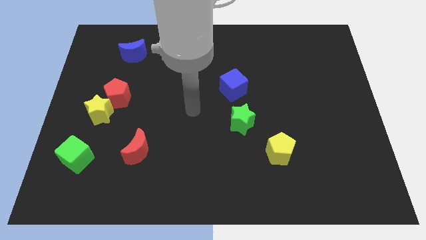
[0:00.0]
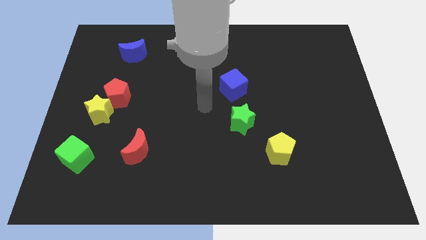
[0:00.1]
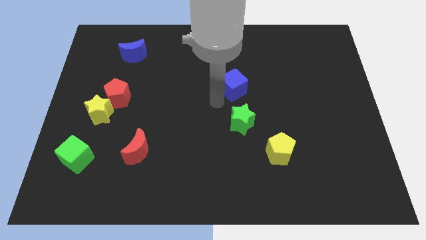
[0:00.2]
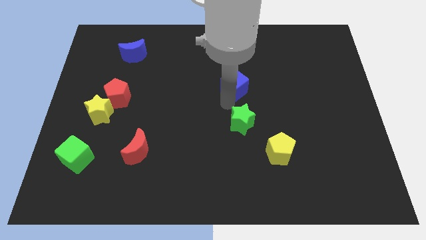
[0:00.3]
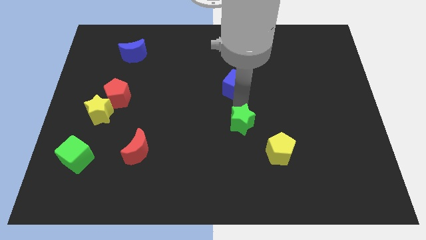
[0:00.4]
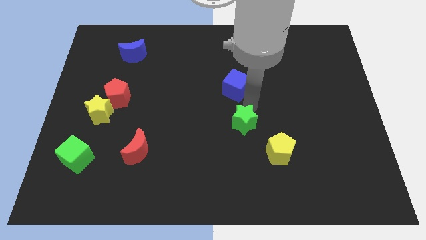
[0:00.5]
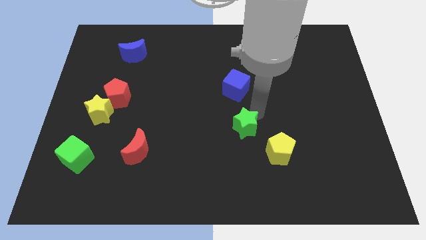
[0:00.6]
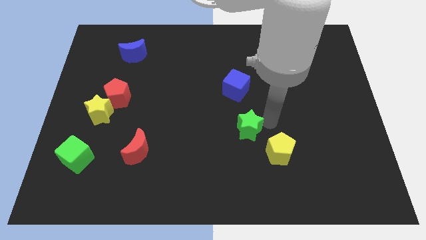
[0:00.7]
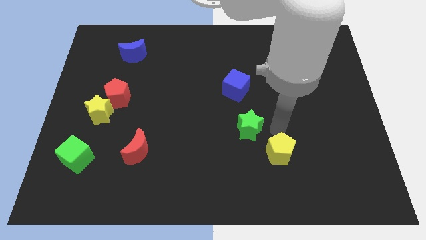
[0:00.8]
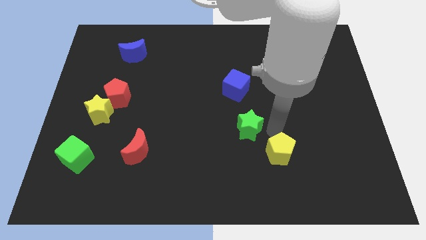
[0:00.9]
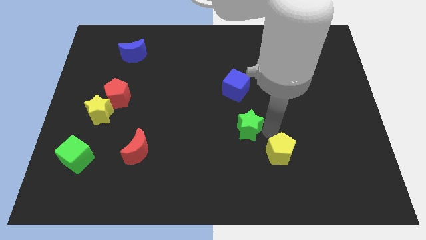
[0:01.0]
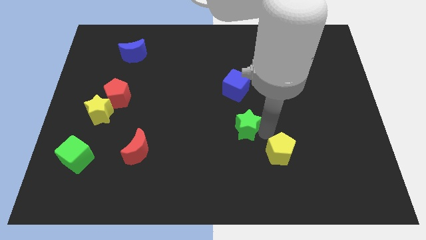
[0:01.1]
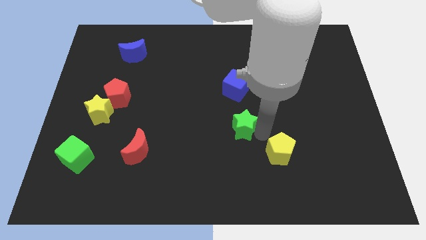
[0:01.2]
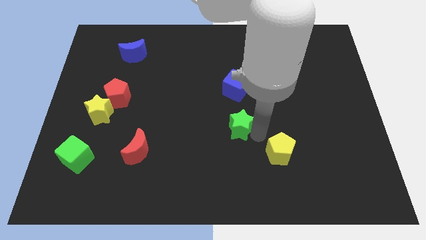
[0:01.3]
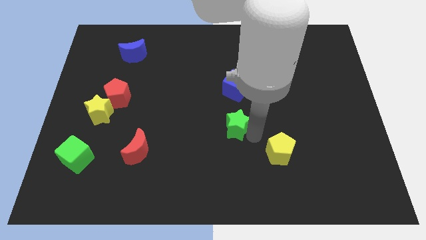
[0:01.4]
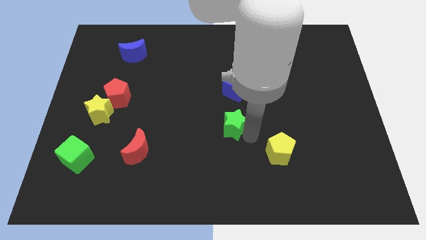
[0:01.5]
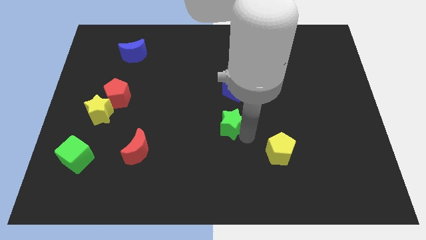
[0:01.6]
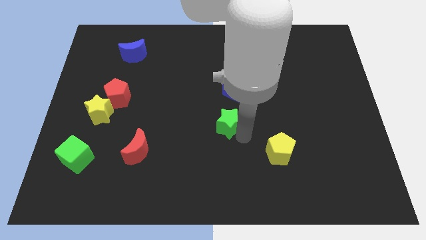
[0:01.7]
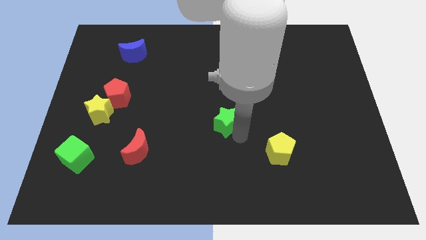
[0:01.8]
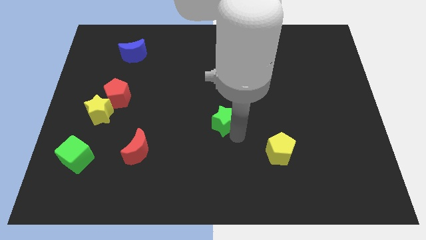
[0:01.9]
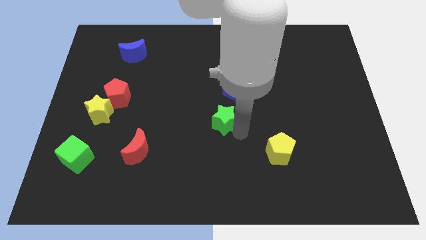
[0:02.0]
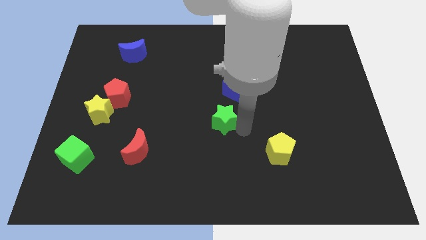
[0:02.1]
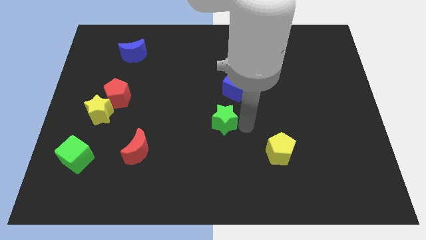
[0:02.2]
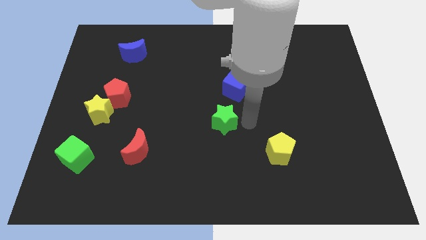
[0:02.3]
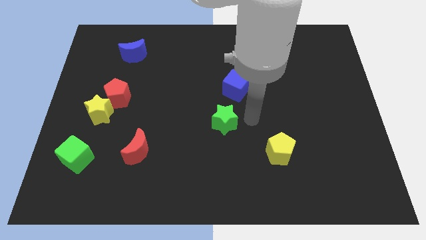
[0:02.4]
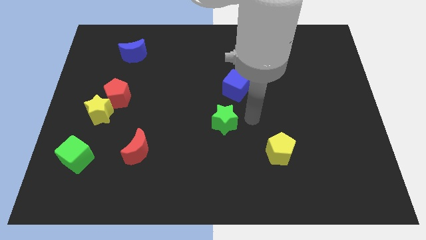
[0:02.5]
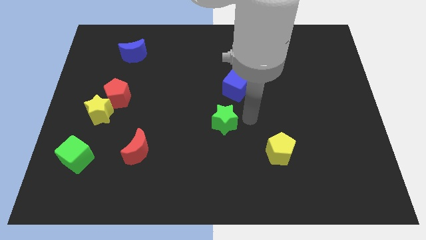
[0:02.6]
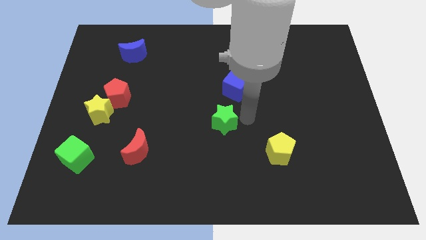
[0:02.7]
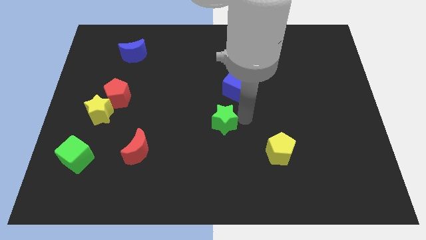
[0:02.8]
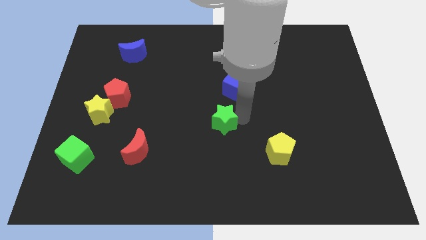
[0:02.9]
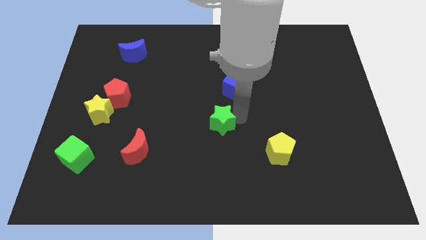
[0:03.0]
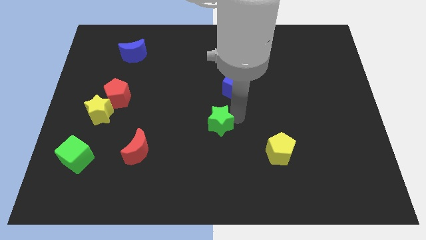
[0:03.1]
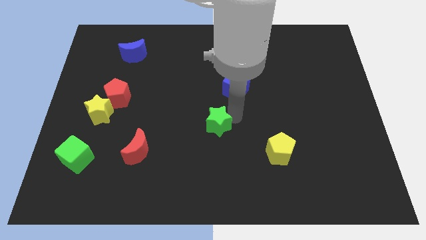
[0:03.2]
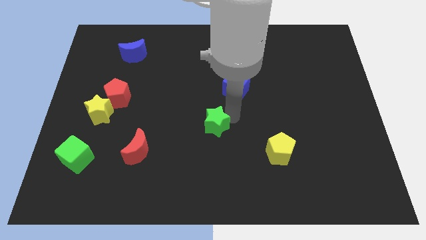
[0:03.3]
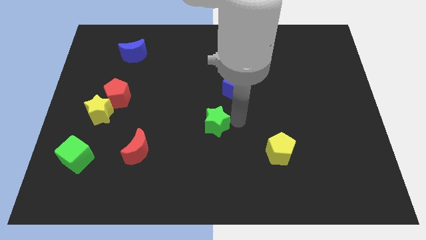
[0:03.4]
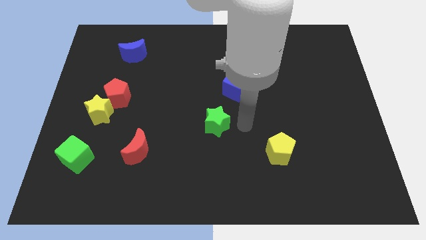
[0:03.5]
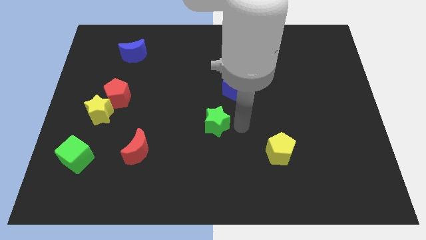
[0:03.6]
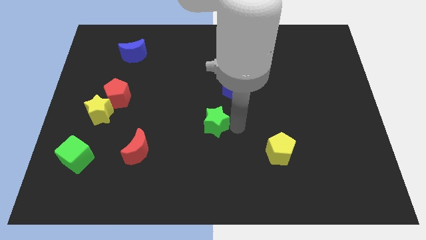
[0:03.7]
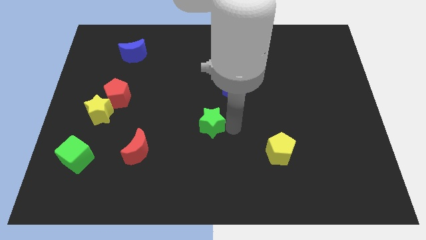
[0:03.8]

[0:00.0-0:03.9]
move the green star left a little

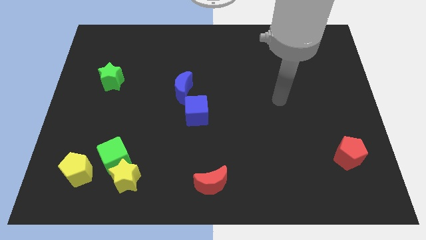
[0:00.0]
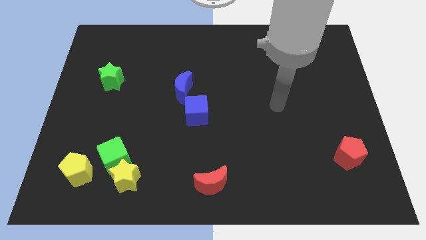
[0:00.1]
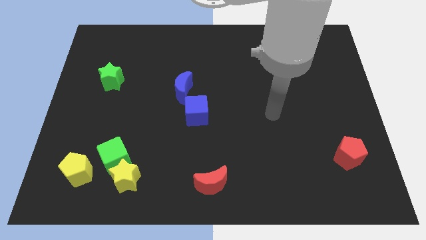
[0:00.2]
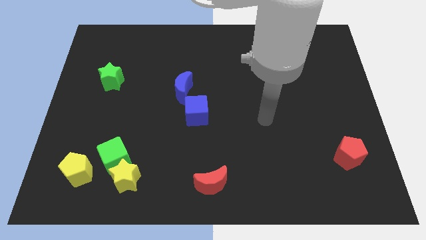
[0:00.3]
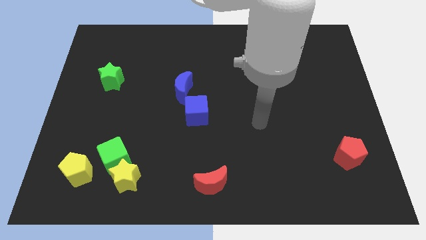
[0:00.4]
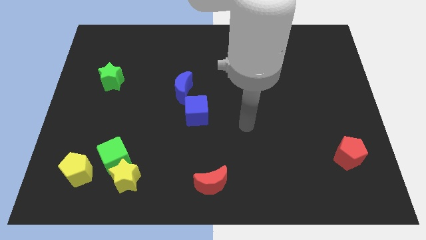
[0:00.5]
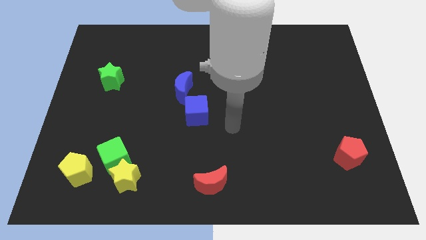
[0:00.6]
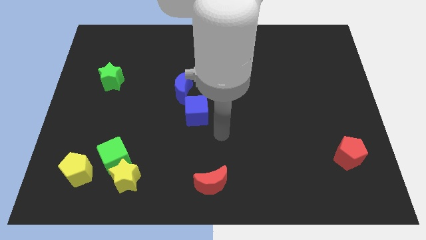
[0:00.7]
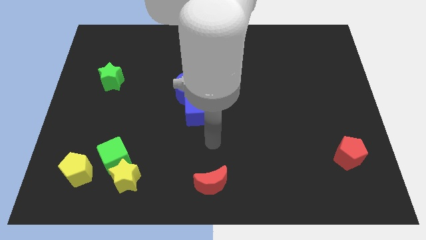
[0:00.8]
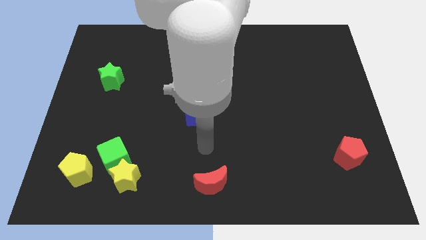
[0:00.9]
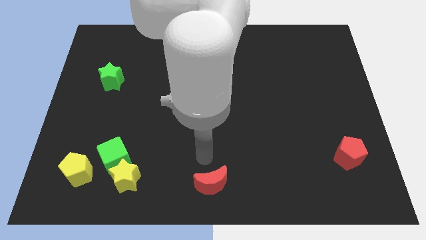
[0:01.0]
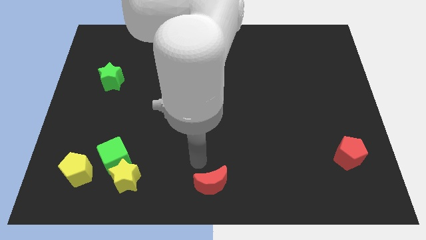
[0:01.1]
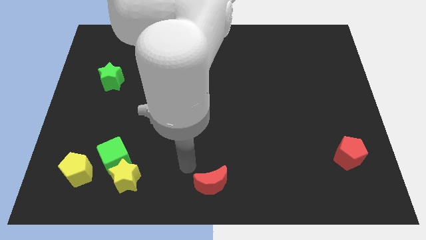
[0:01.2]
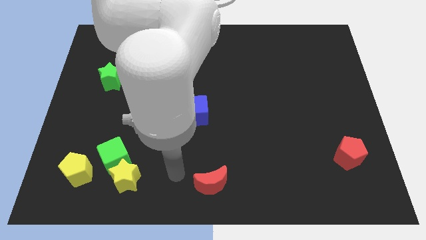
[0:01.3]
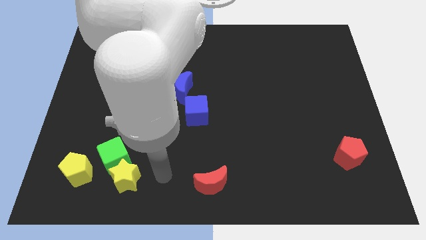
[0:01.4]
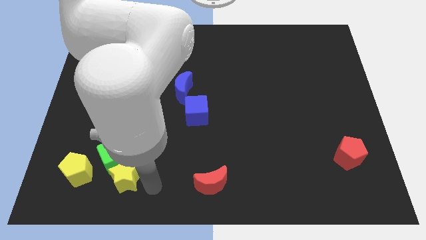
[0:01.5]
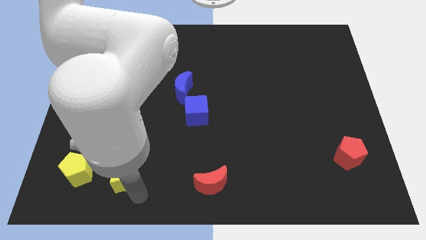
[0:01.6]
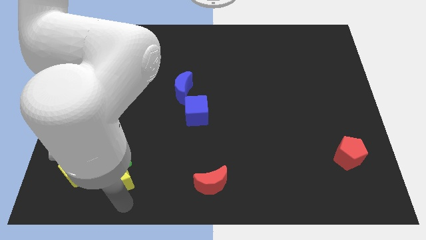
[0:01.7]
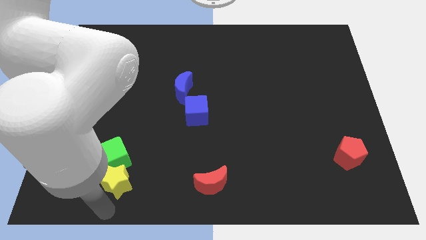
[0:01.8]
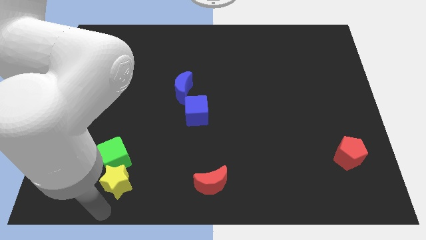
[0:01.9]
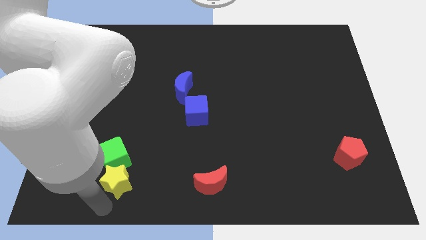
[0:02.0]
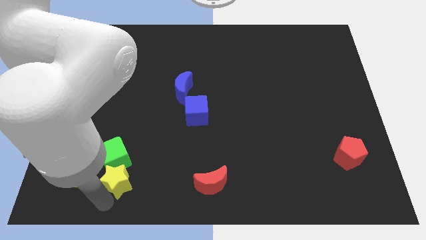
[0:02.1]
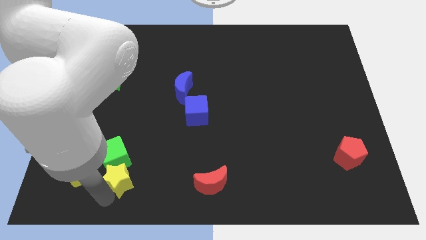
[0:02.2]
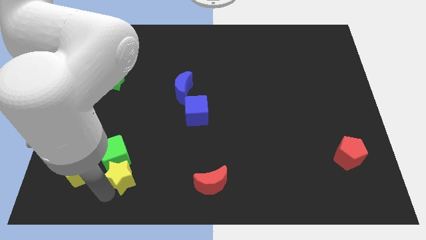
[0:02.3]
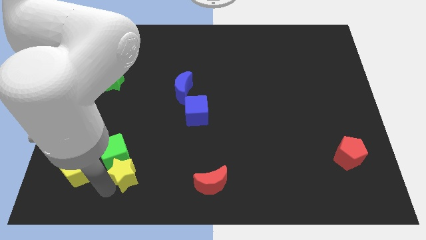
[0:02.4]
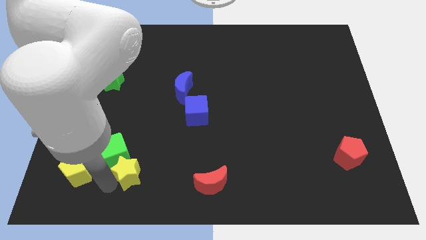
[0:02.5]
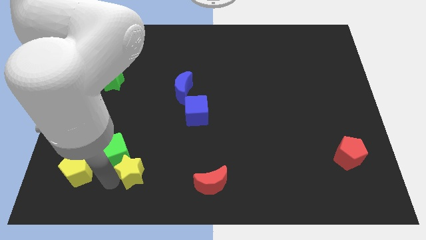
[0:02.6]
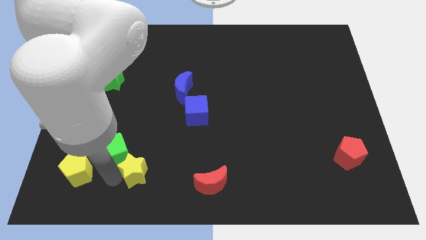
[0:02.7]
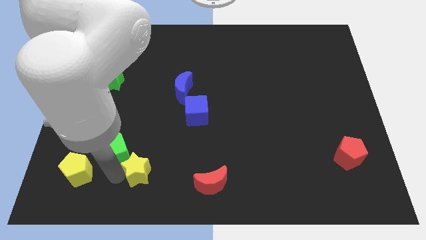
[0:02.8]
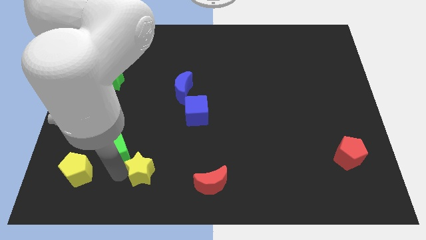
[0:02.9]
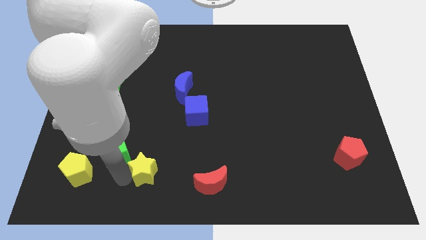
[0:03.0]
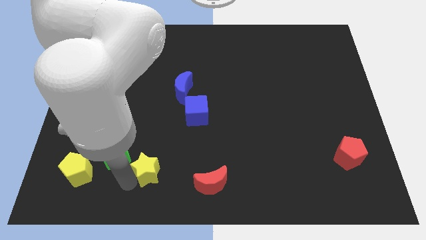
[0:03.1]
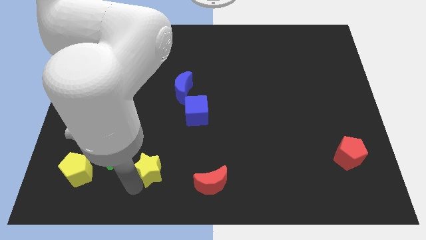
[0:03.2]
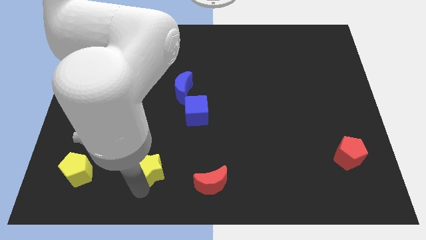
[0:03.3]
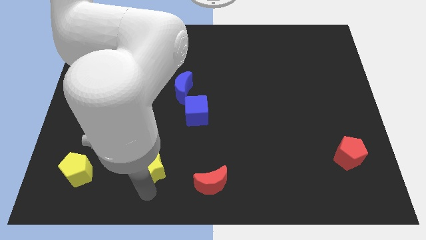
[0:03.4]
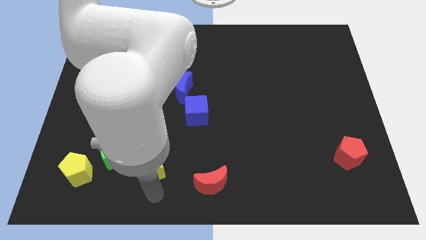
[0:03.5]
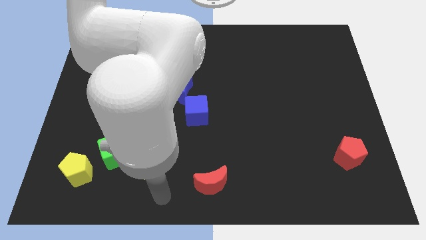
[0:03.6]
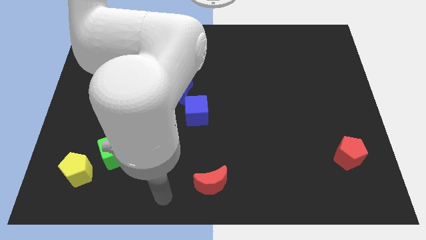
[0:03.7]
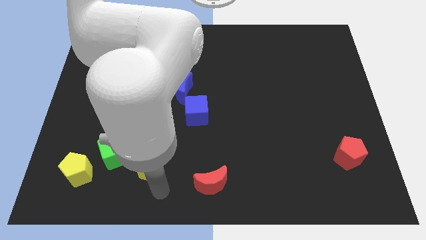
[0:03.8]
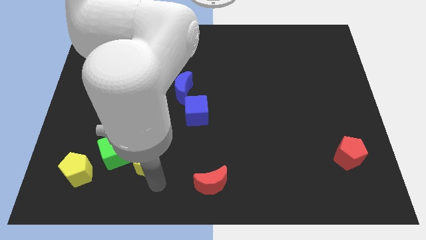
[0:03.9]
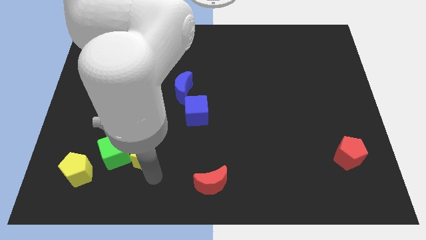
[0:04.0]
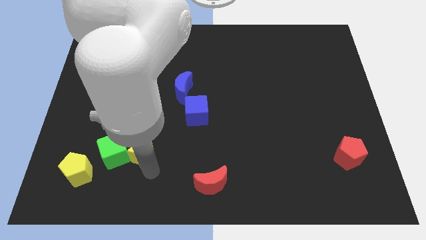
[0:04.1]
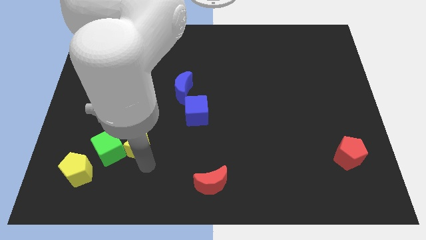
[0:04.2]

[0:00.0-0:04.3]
slightly slide the yellow star upwards
